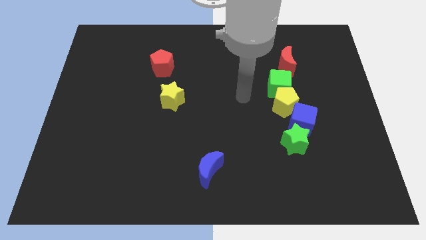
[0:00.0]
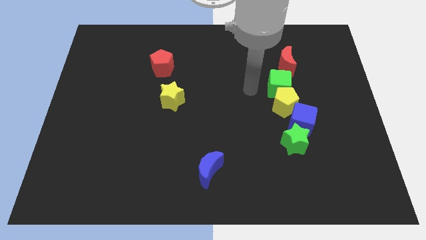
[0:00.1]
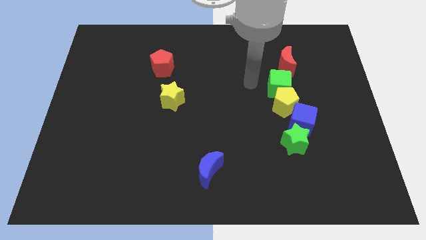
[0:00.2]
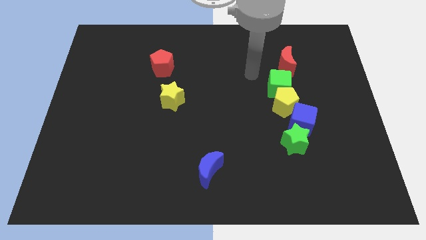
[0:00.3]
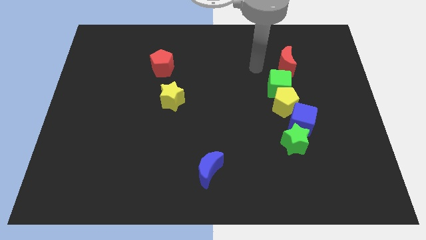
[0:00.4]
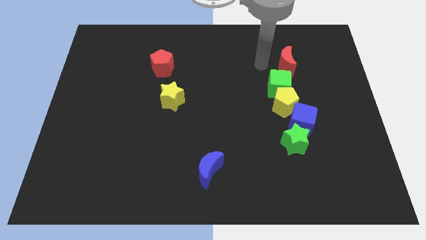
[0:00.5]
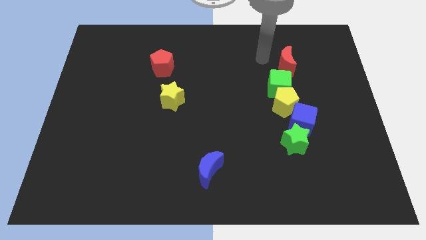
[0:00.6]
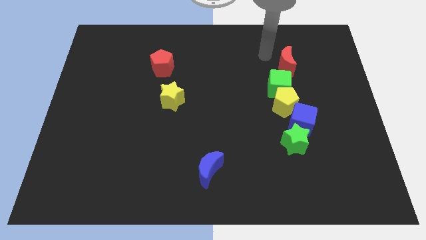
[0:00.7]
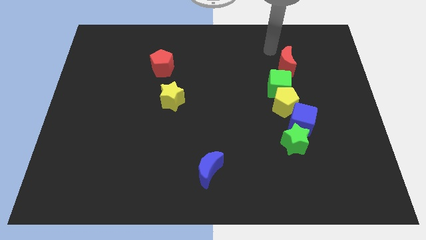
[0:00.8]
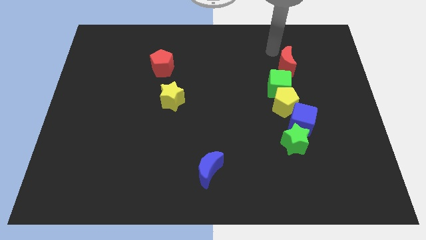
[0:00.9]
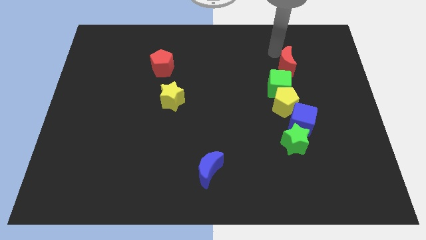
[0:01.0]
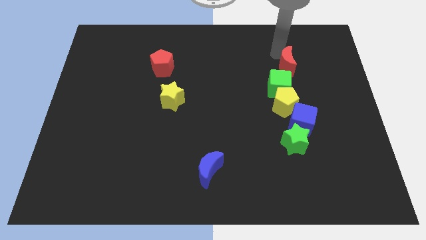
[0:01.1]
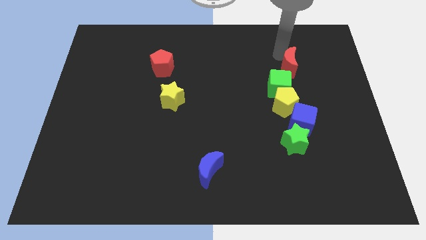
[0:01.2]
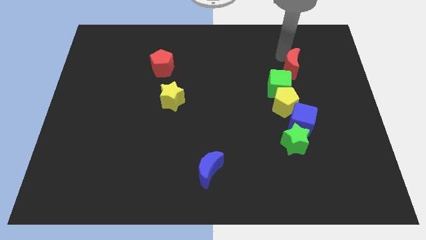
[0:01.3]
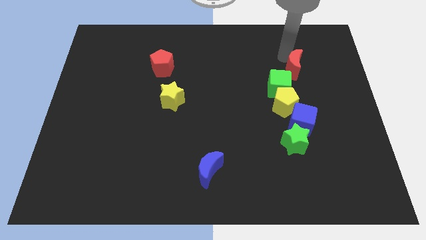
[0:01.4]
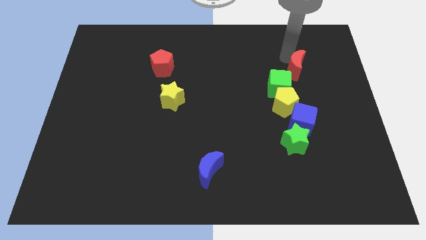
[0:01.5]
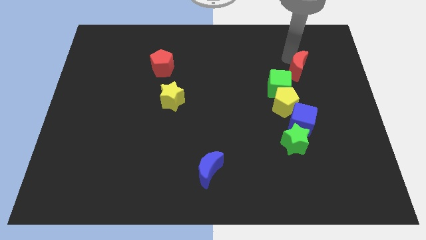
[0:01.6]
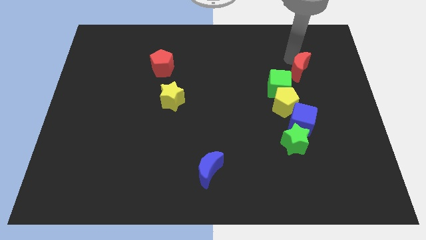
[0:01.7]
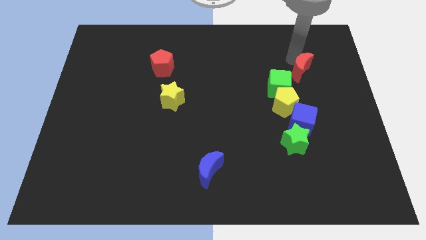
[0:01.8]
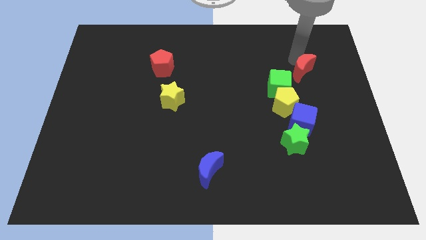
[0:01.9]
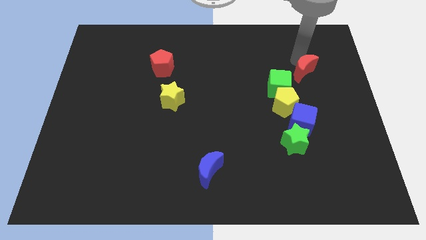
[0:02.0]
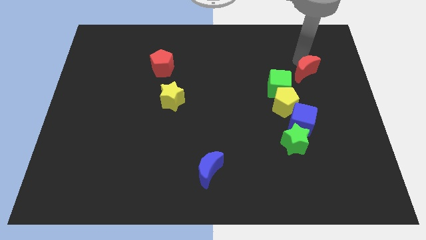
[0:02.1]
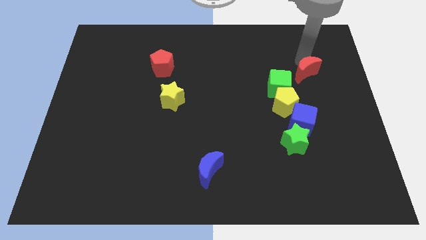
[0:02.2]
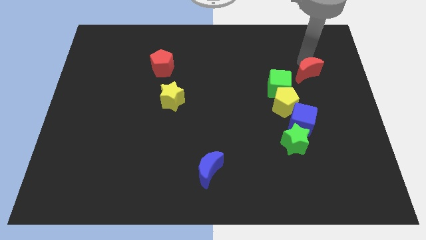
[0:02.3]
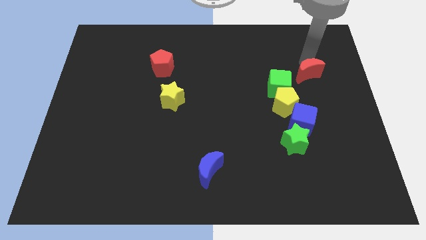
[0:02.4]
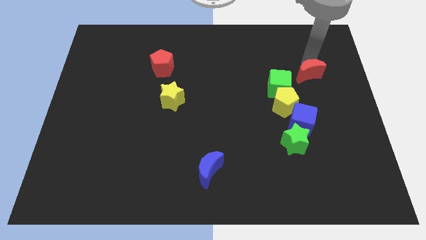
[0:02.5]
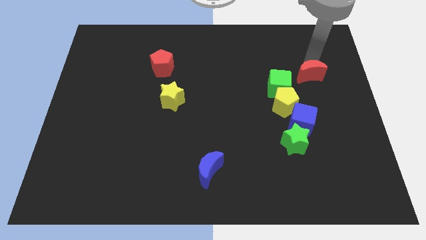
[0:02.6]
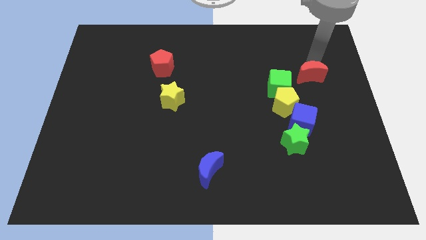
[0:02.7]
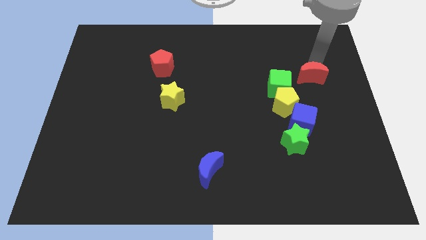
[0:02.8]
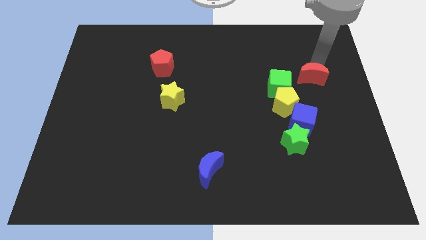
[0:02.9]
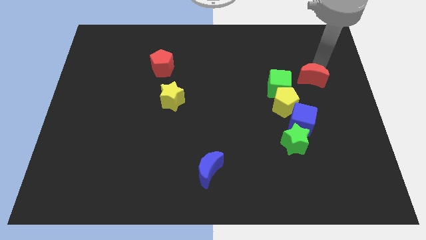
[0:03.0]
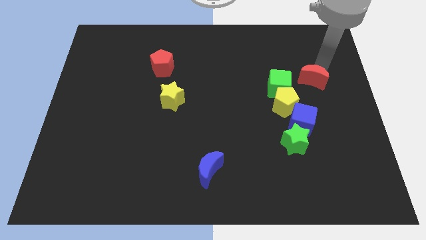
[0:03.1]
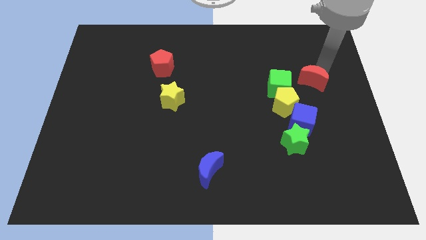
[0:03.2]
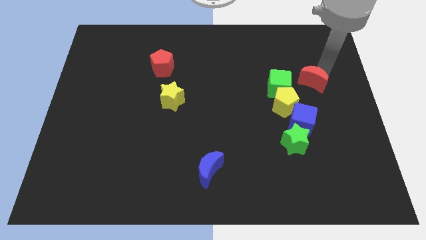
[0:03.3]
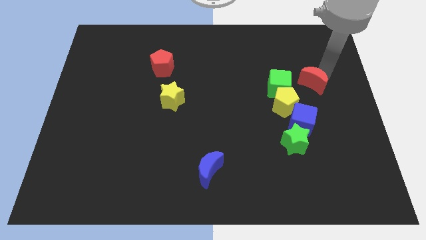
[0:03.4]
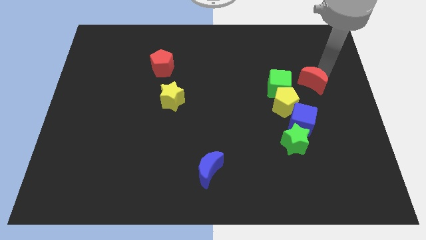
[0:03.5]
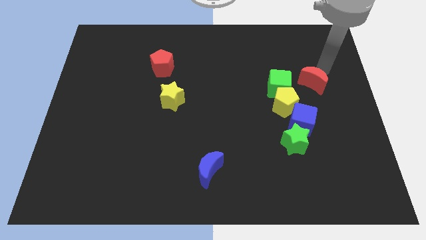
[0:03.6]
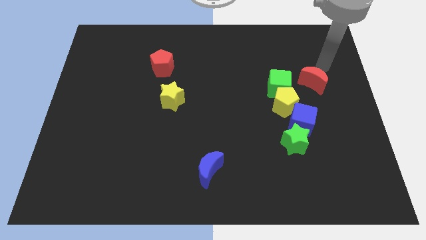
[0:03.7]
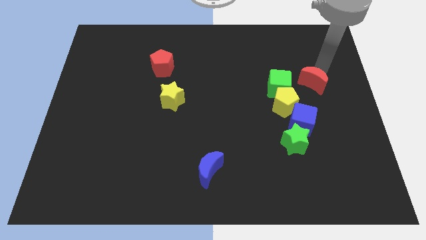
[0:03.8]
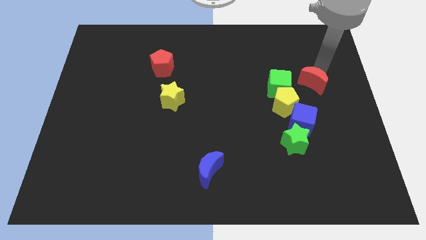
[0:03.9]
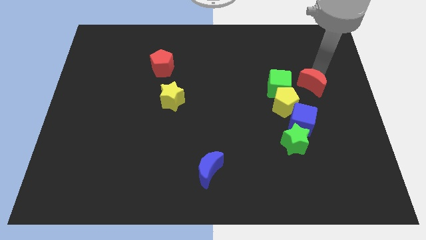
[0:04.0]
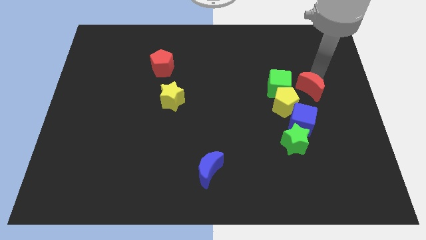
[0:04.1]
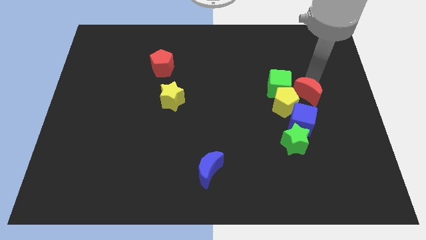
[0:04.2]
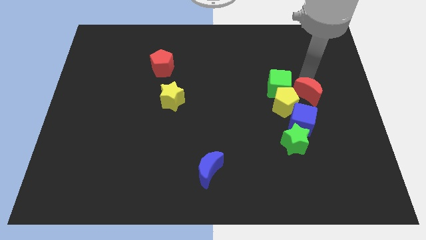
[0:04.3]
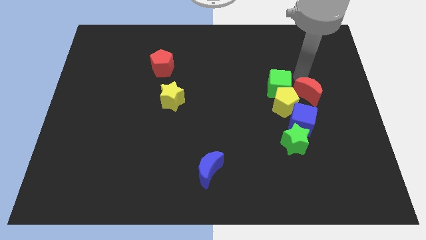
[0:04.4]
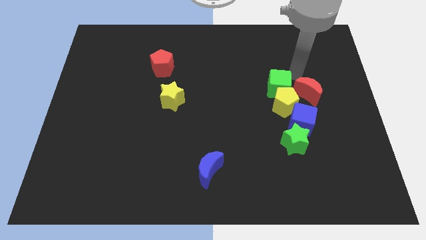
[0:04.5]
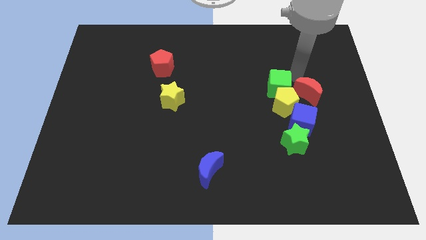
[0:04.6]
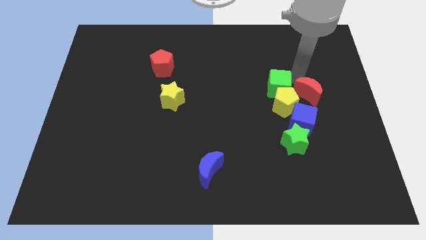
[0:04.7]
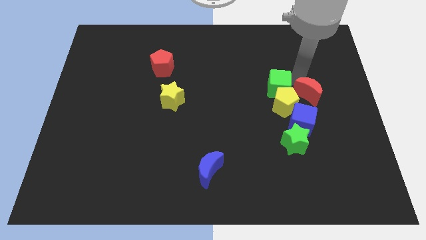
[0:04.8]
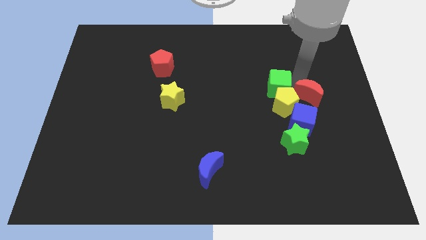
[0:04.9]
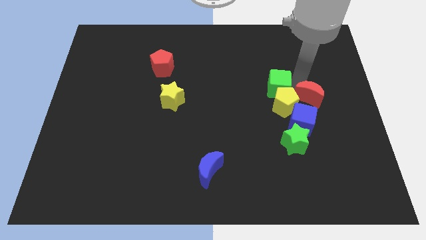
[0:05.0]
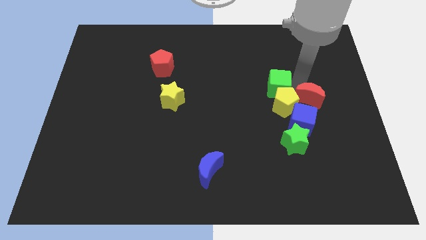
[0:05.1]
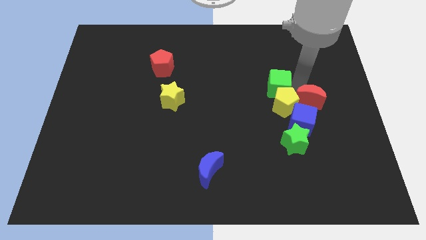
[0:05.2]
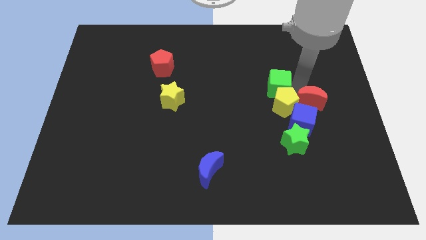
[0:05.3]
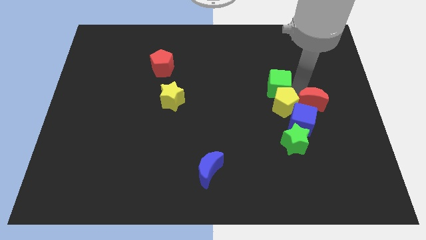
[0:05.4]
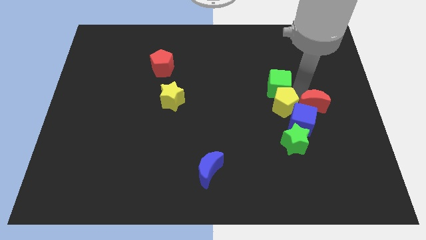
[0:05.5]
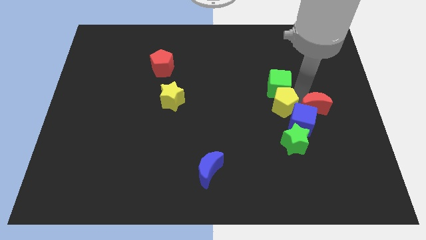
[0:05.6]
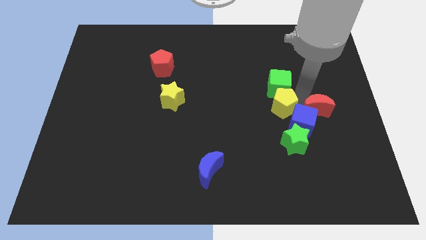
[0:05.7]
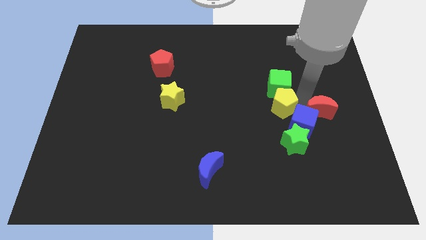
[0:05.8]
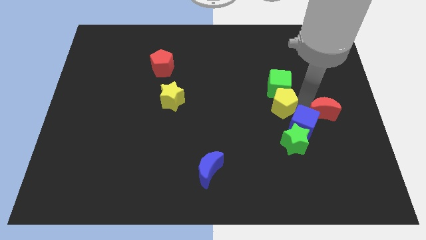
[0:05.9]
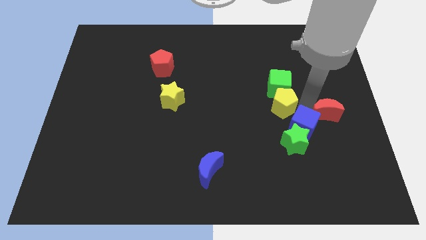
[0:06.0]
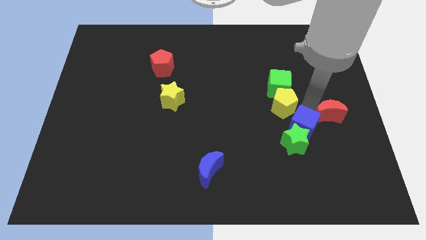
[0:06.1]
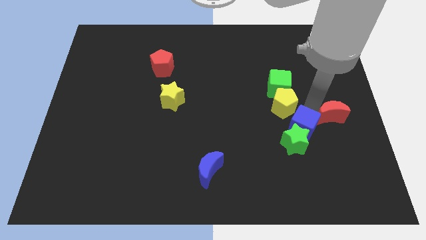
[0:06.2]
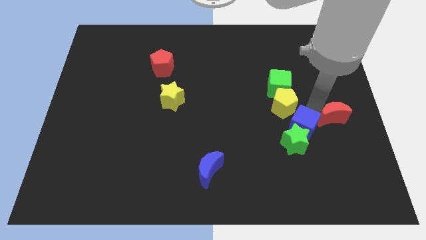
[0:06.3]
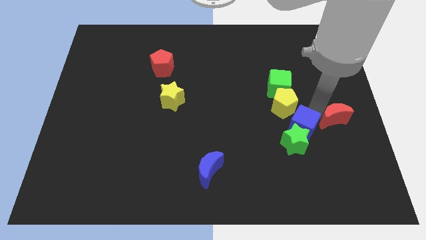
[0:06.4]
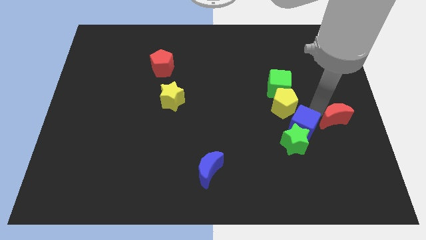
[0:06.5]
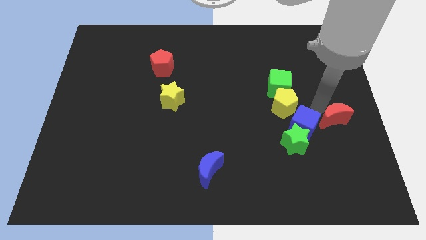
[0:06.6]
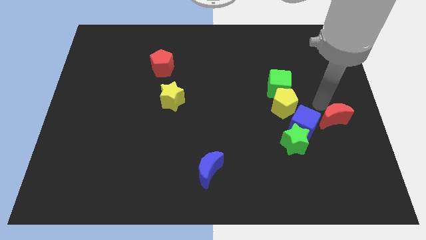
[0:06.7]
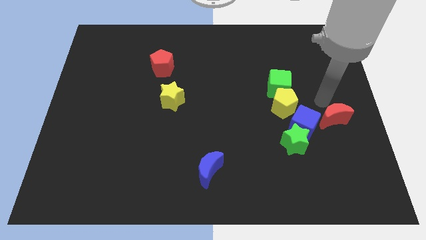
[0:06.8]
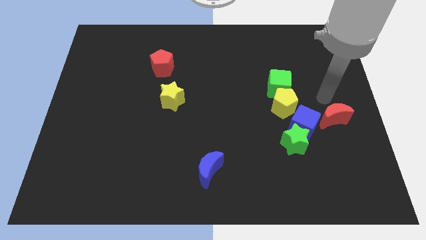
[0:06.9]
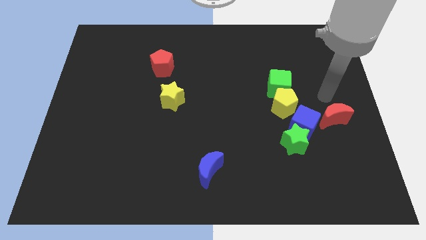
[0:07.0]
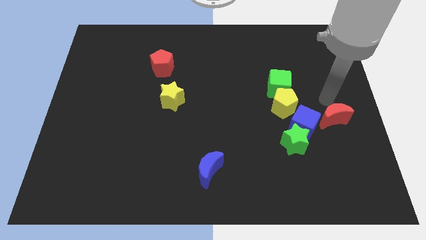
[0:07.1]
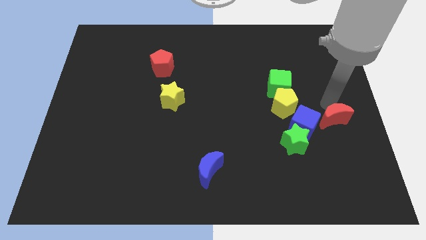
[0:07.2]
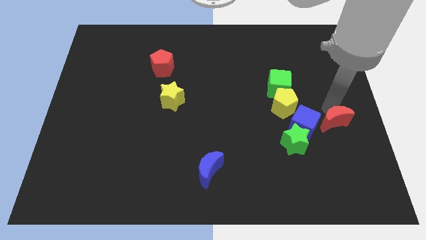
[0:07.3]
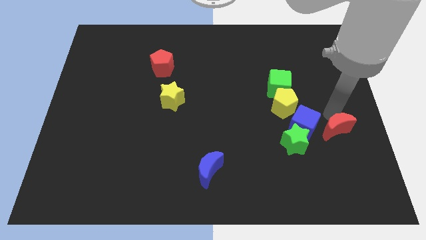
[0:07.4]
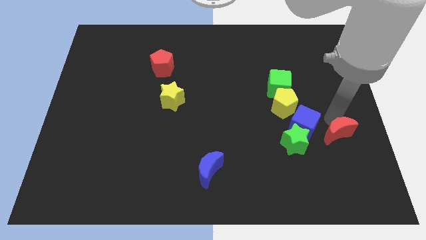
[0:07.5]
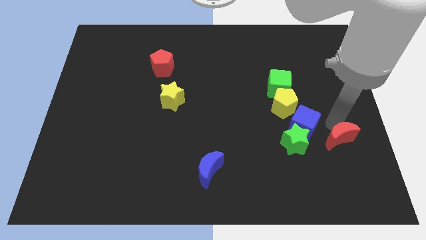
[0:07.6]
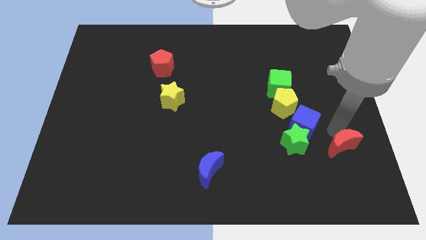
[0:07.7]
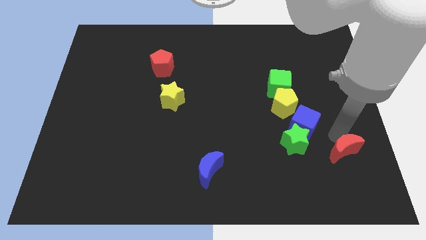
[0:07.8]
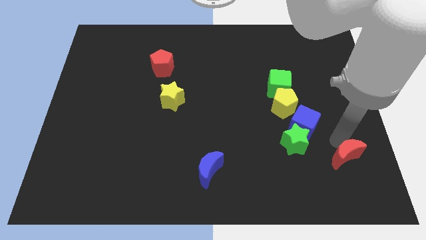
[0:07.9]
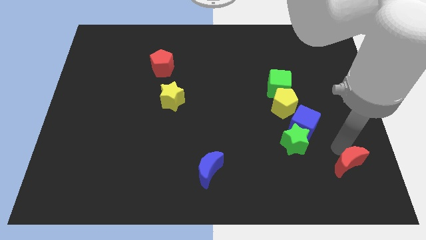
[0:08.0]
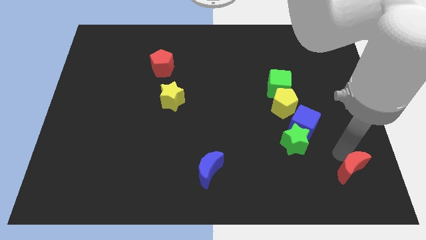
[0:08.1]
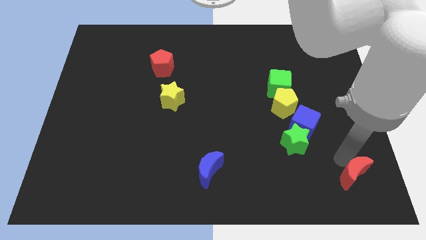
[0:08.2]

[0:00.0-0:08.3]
put the red moon to the bottom right
